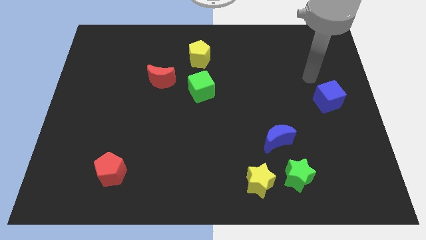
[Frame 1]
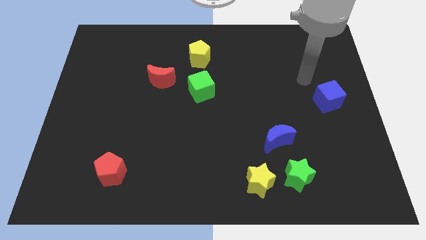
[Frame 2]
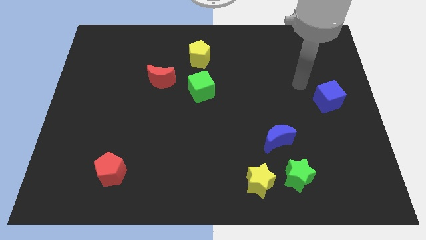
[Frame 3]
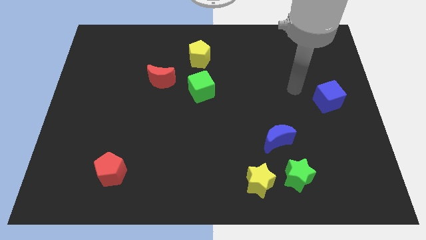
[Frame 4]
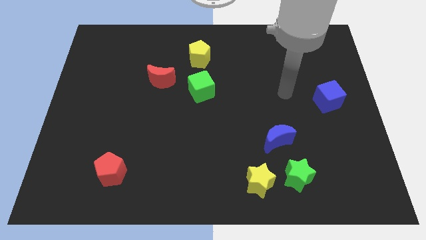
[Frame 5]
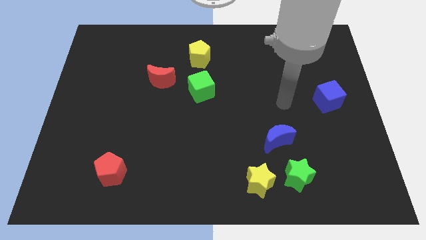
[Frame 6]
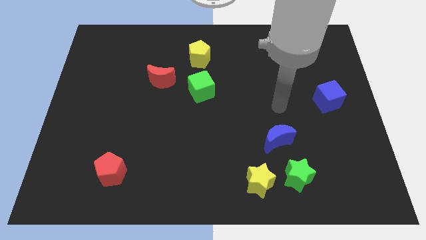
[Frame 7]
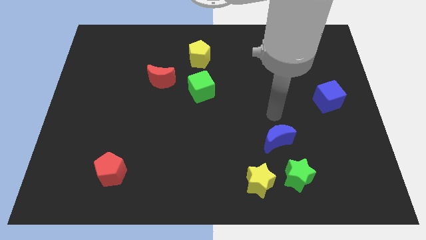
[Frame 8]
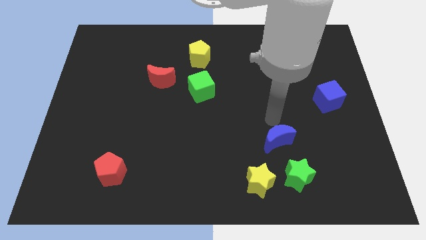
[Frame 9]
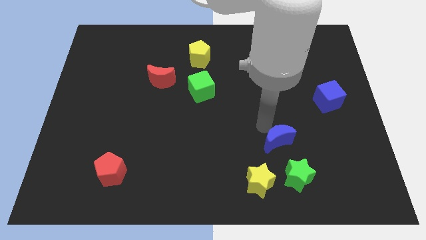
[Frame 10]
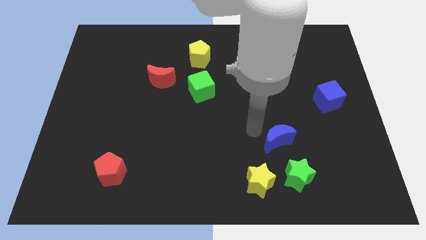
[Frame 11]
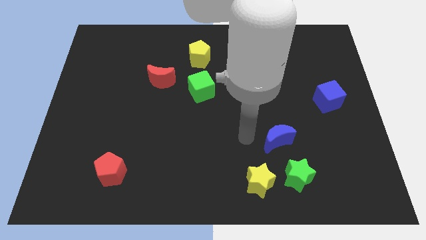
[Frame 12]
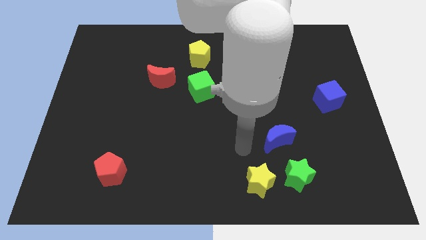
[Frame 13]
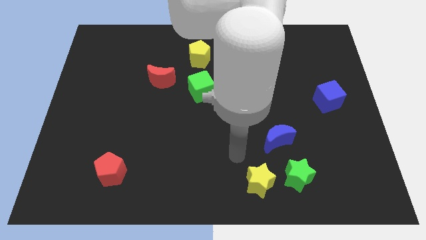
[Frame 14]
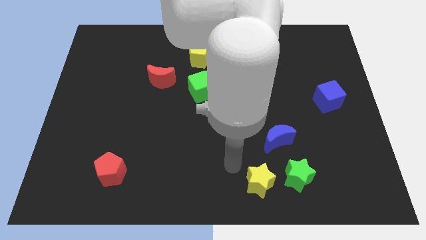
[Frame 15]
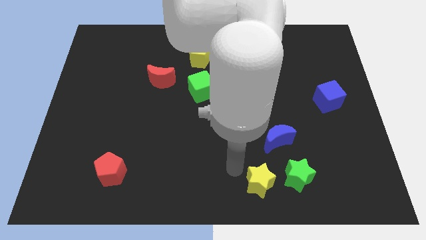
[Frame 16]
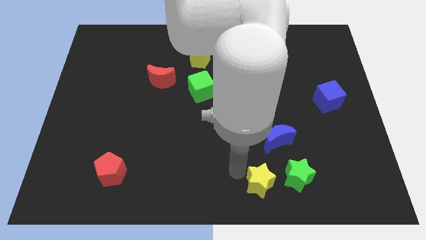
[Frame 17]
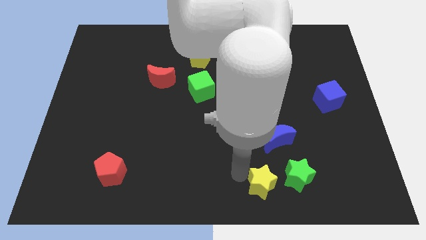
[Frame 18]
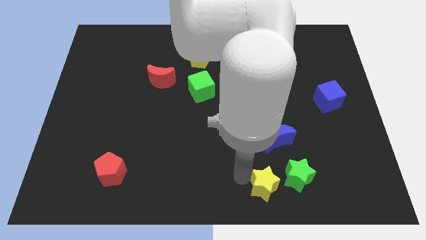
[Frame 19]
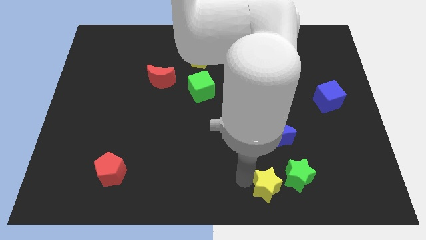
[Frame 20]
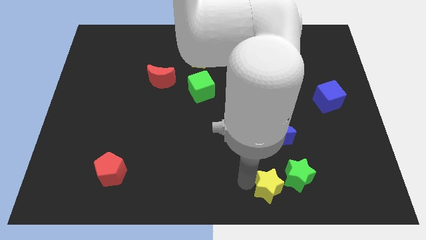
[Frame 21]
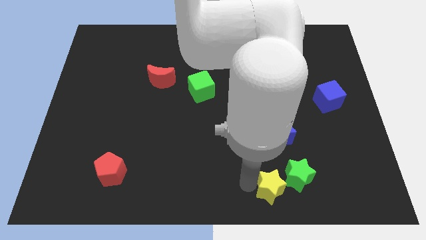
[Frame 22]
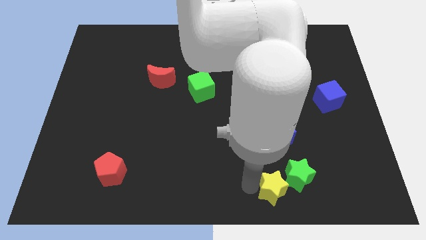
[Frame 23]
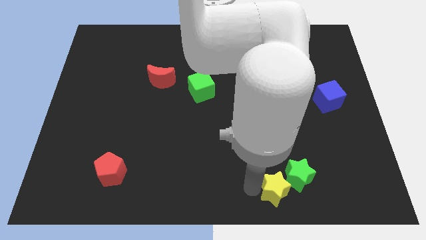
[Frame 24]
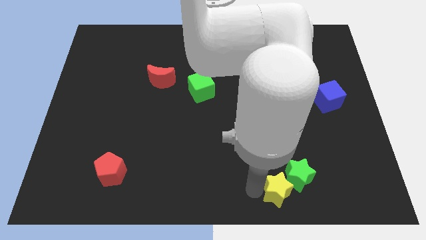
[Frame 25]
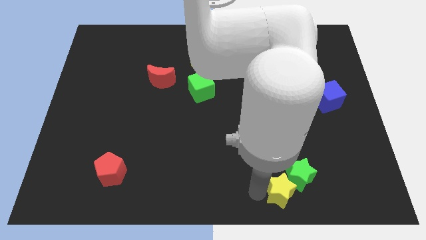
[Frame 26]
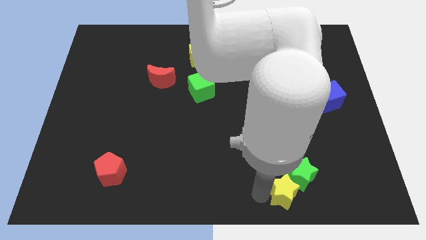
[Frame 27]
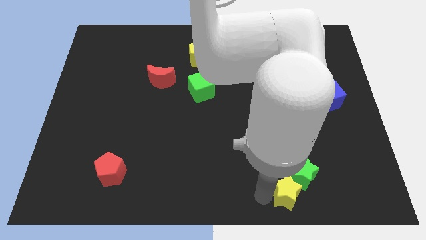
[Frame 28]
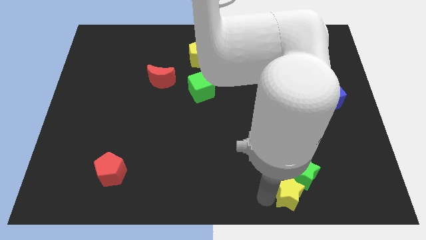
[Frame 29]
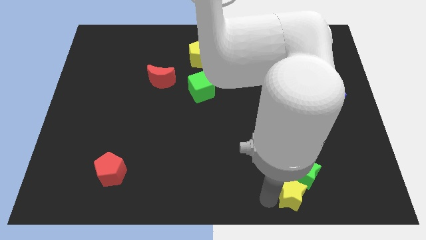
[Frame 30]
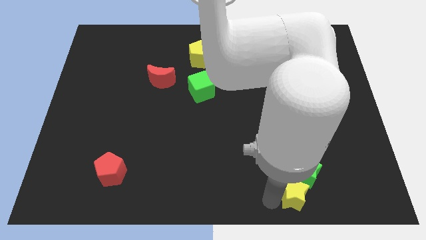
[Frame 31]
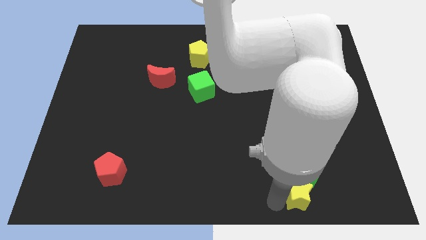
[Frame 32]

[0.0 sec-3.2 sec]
slightly move the yellow star right

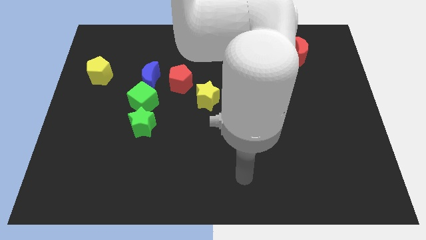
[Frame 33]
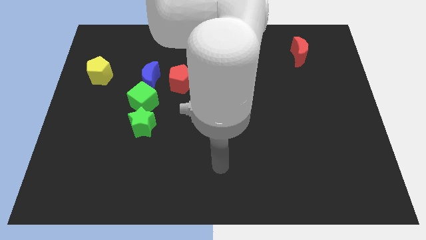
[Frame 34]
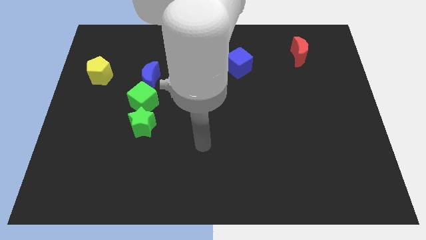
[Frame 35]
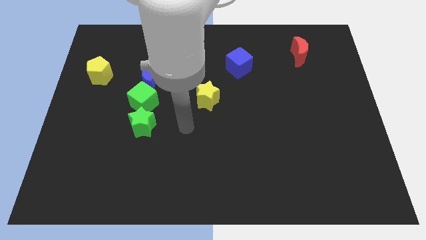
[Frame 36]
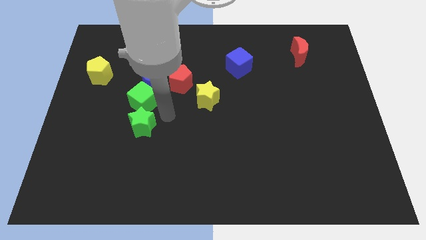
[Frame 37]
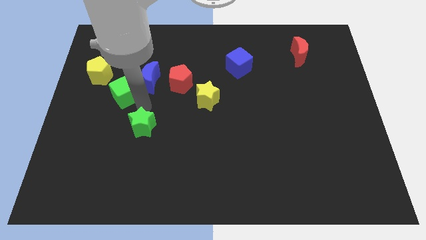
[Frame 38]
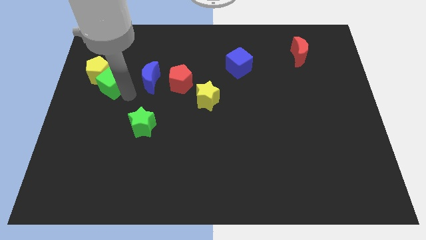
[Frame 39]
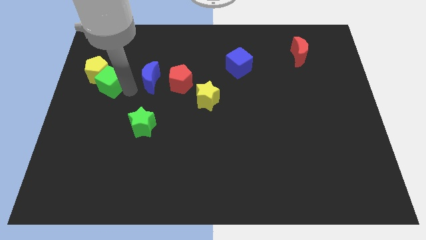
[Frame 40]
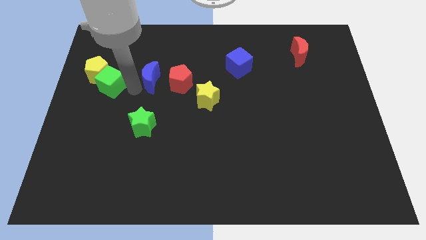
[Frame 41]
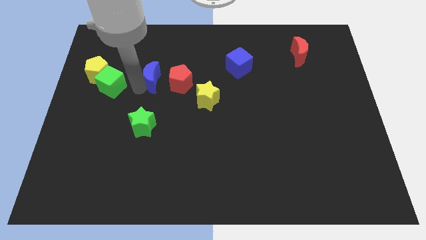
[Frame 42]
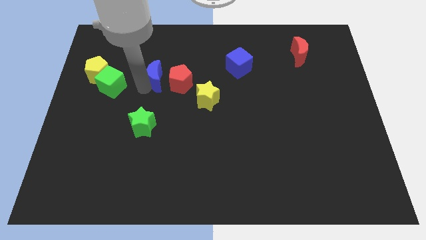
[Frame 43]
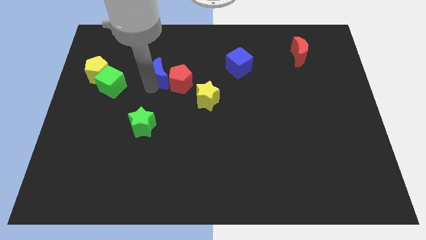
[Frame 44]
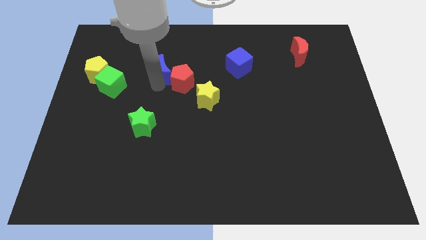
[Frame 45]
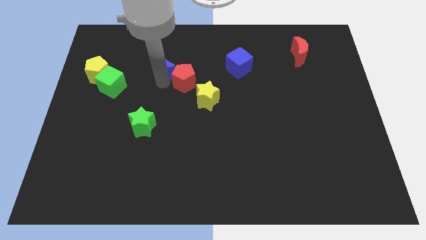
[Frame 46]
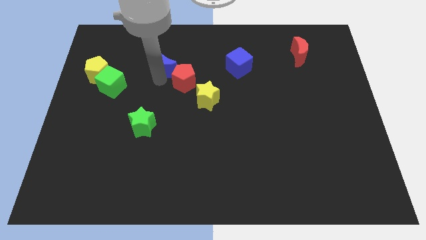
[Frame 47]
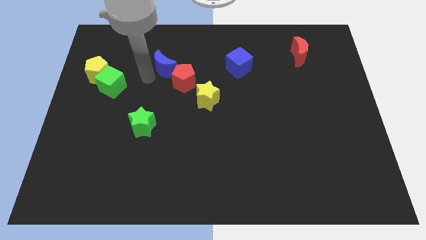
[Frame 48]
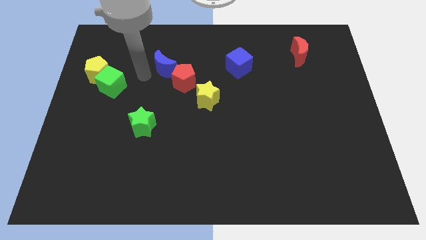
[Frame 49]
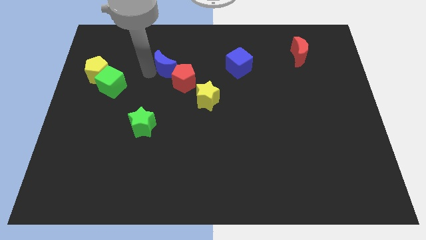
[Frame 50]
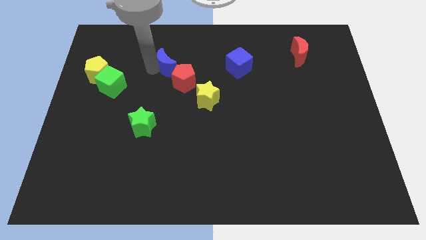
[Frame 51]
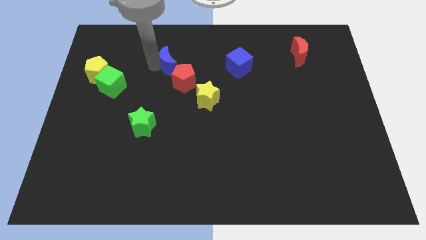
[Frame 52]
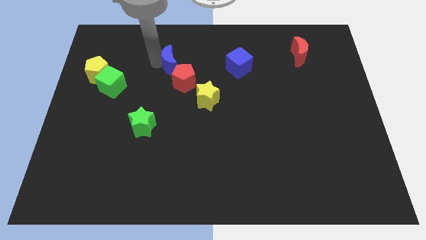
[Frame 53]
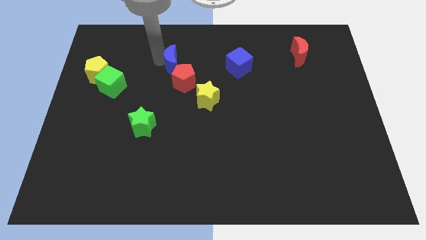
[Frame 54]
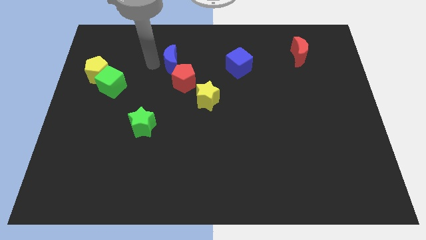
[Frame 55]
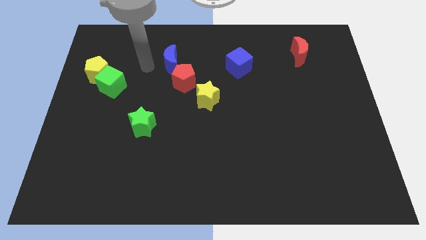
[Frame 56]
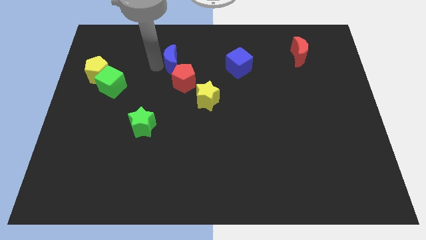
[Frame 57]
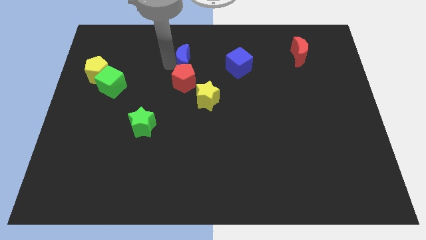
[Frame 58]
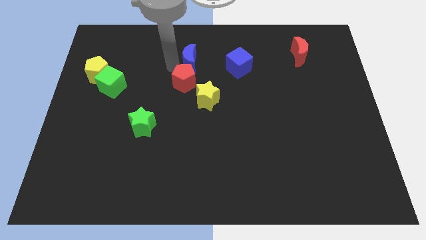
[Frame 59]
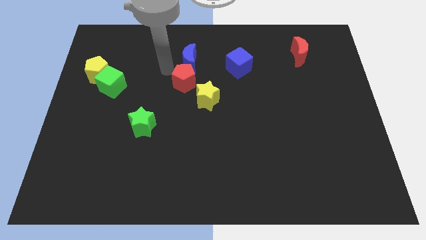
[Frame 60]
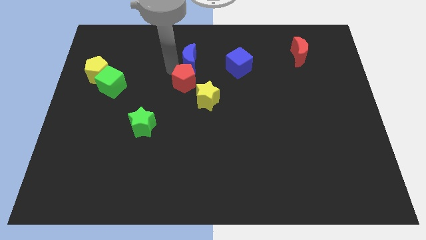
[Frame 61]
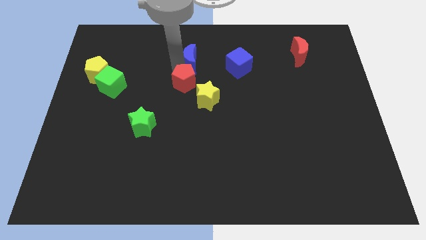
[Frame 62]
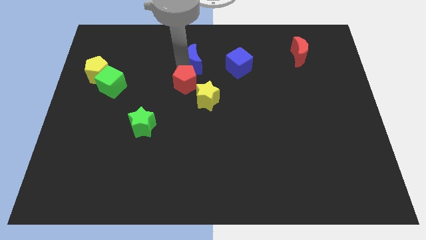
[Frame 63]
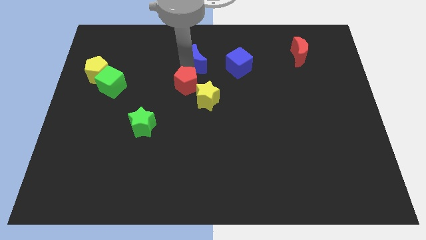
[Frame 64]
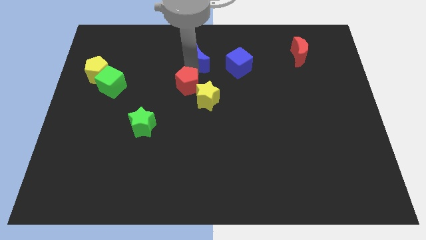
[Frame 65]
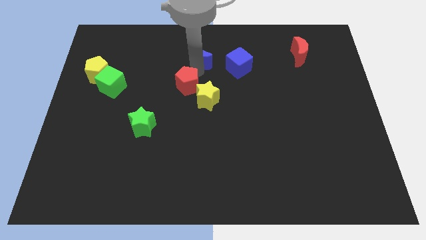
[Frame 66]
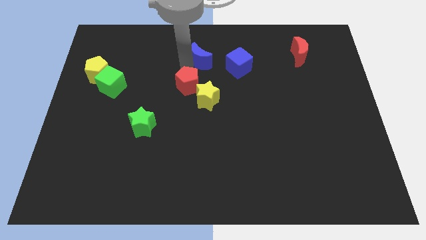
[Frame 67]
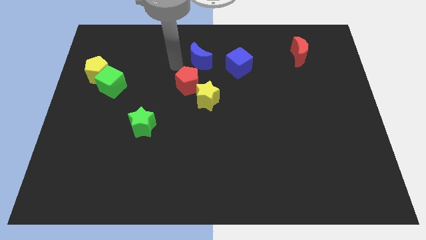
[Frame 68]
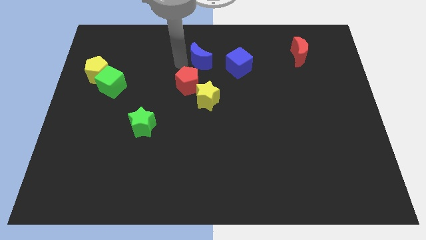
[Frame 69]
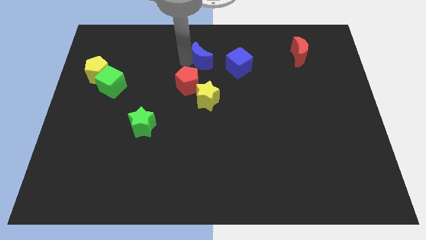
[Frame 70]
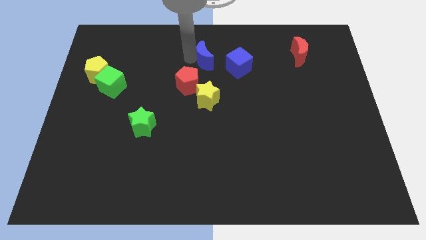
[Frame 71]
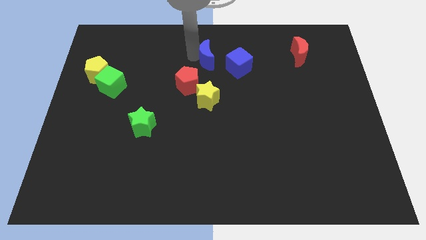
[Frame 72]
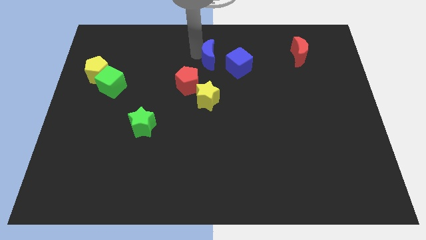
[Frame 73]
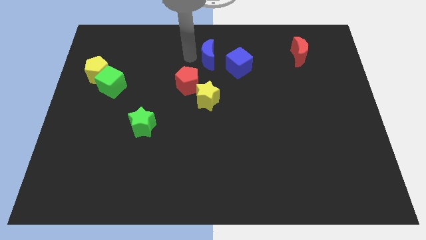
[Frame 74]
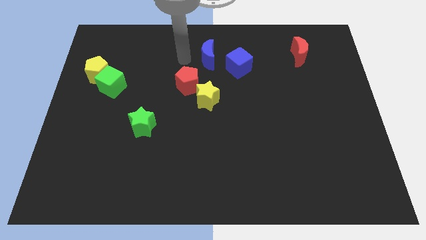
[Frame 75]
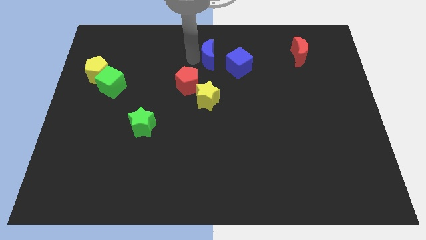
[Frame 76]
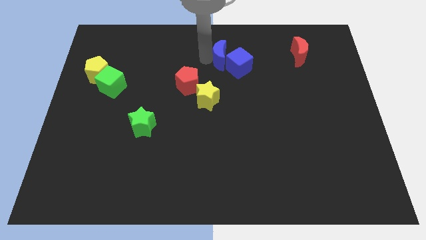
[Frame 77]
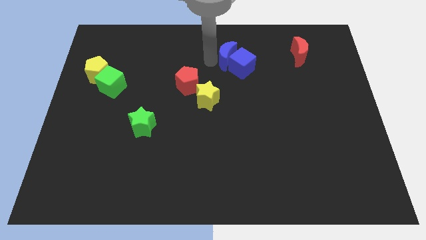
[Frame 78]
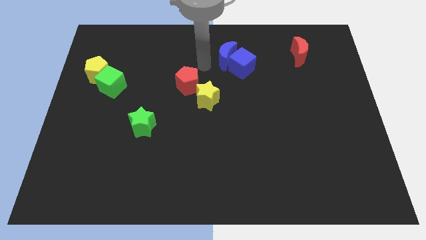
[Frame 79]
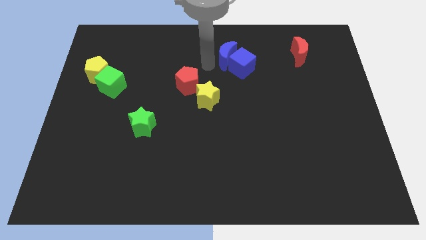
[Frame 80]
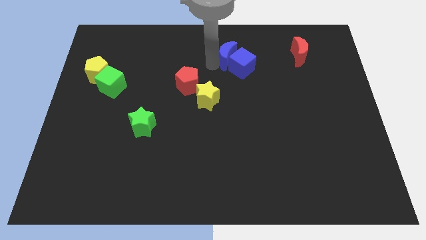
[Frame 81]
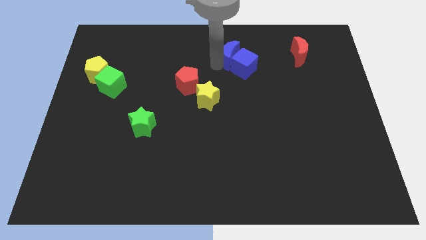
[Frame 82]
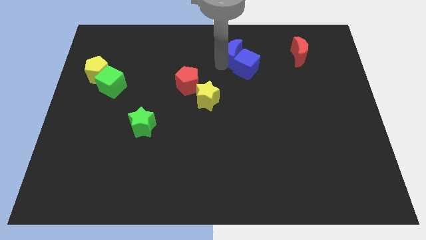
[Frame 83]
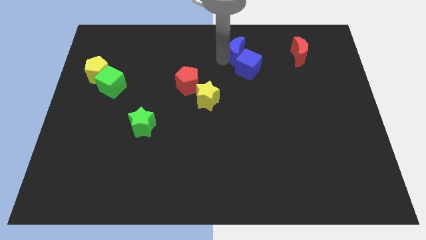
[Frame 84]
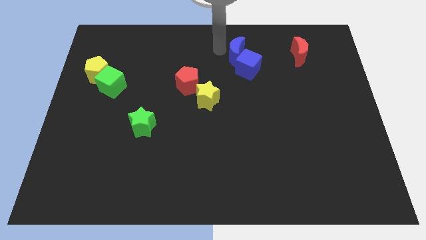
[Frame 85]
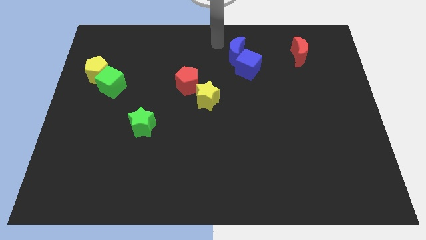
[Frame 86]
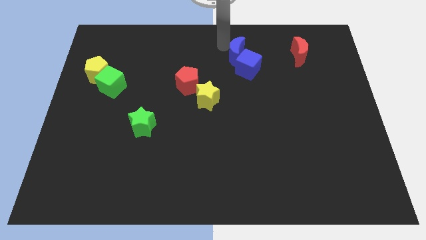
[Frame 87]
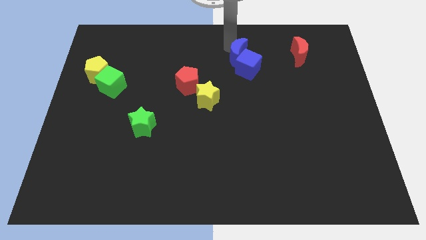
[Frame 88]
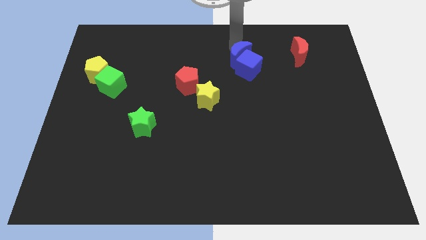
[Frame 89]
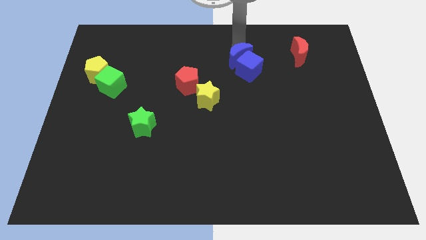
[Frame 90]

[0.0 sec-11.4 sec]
slide the blue moon to the right
